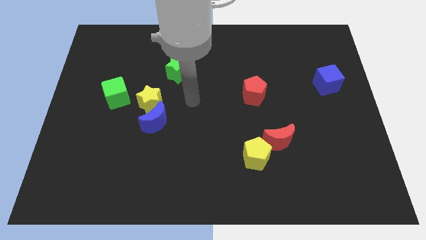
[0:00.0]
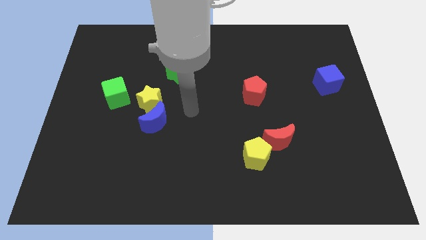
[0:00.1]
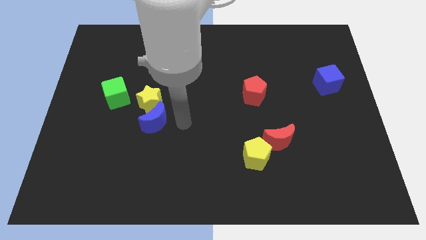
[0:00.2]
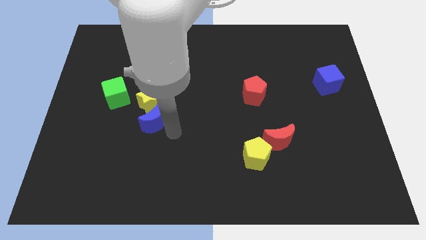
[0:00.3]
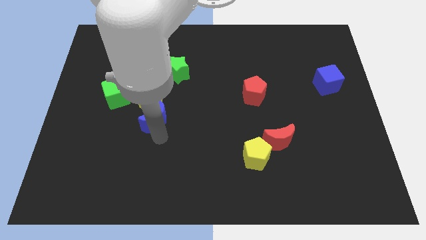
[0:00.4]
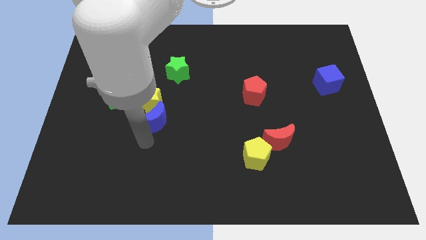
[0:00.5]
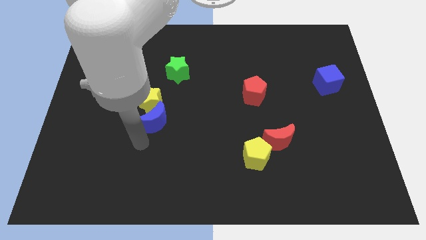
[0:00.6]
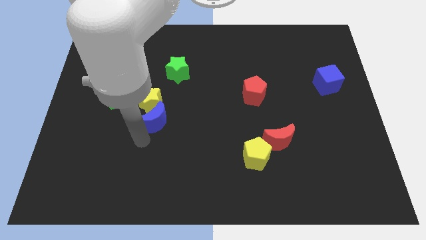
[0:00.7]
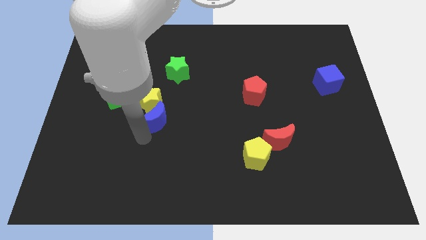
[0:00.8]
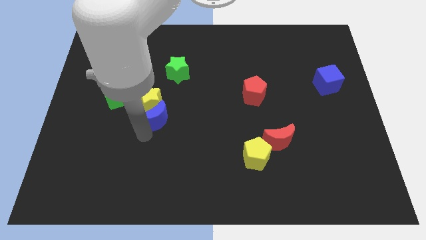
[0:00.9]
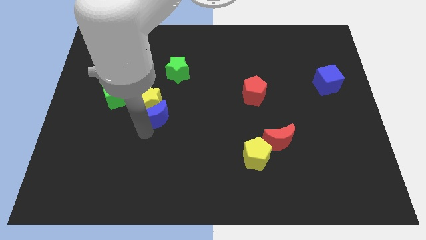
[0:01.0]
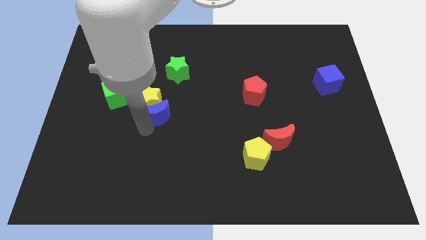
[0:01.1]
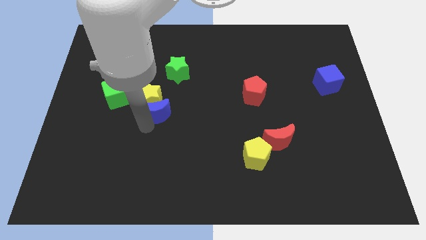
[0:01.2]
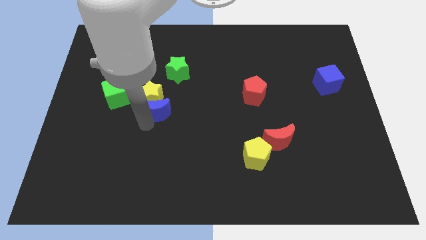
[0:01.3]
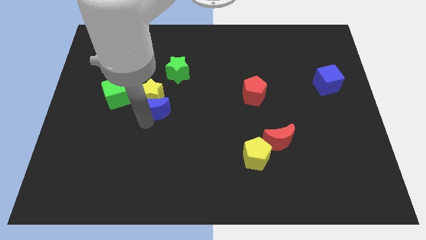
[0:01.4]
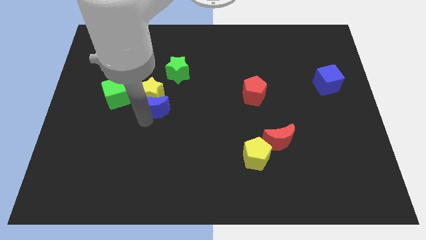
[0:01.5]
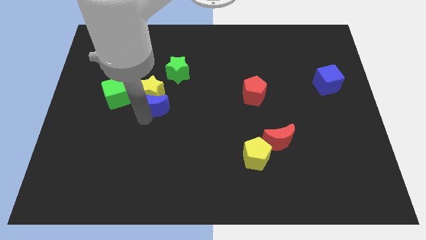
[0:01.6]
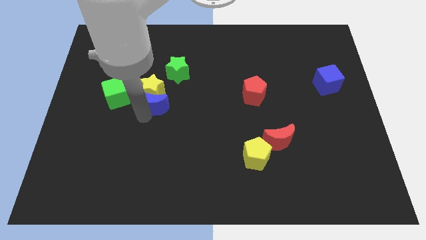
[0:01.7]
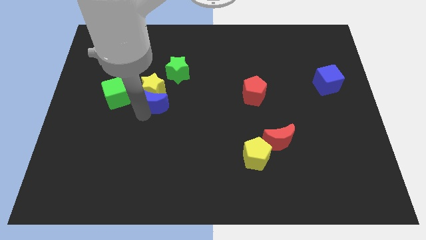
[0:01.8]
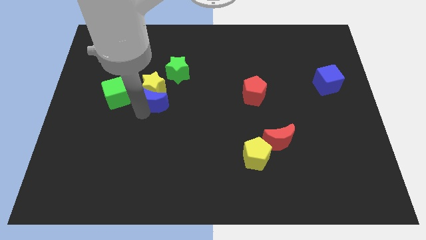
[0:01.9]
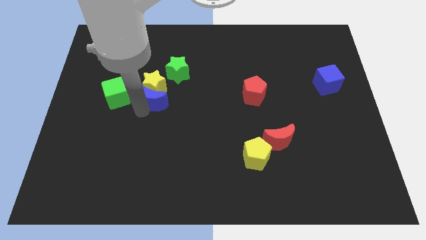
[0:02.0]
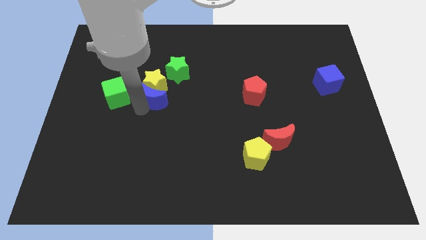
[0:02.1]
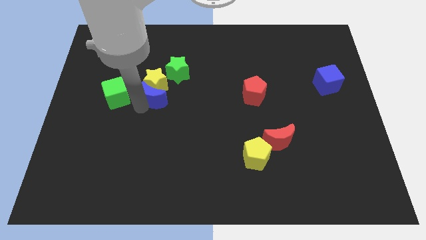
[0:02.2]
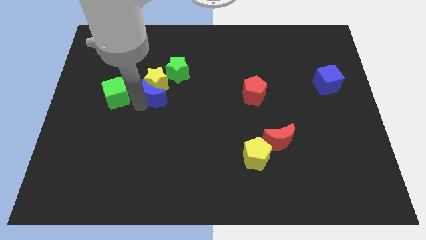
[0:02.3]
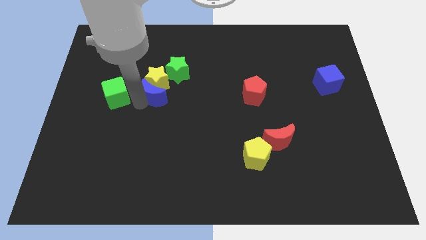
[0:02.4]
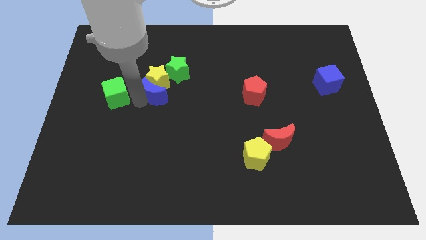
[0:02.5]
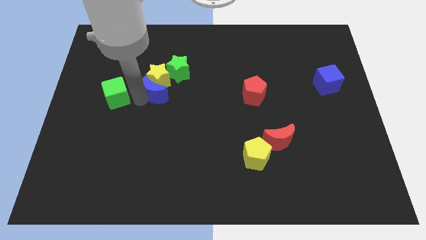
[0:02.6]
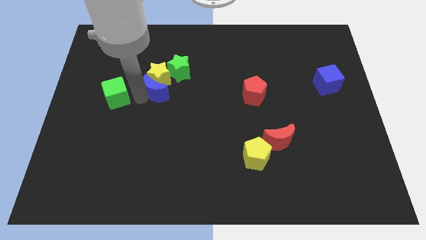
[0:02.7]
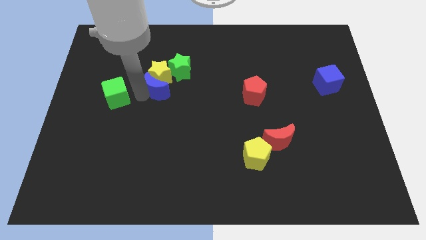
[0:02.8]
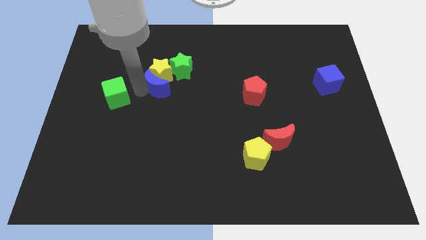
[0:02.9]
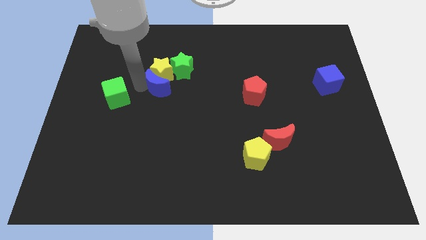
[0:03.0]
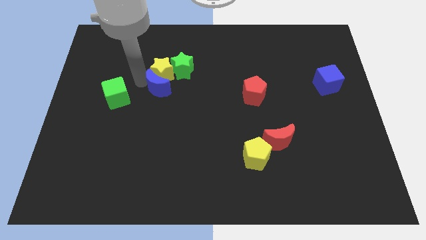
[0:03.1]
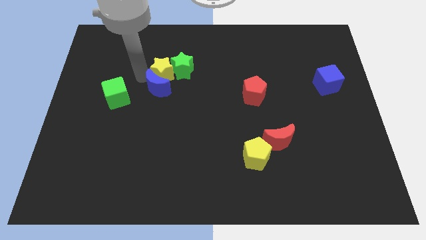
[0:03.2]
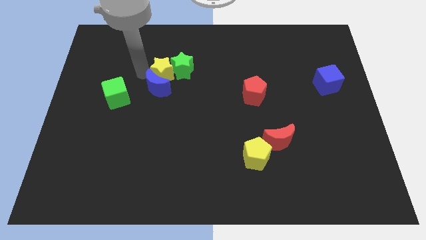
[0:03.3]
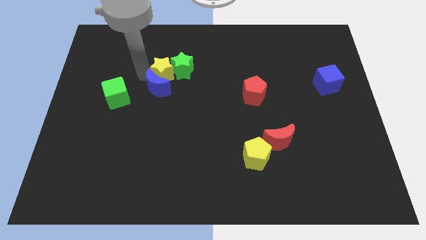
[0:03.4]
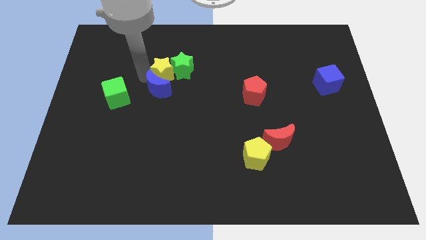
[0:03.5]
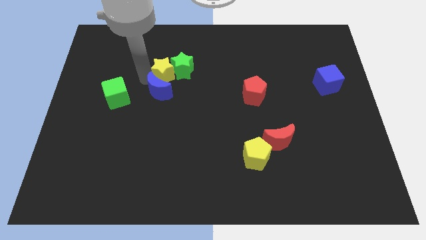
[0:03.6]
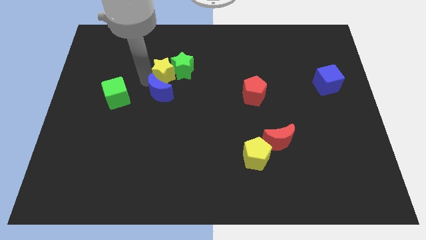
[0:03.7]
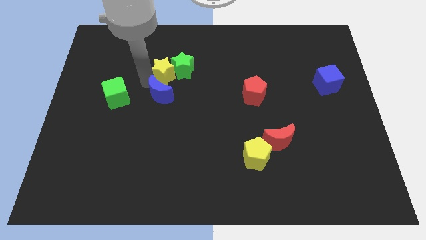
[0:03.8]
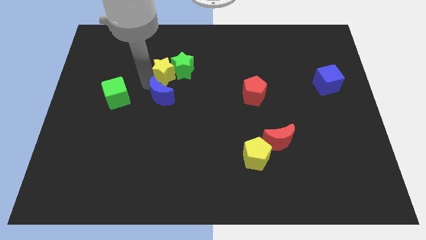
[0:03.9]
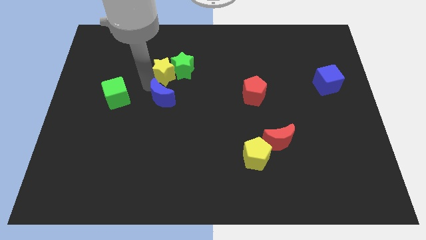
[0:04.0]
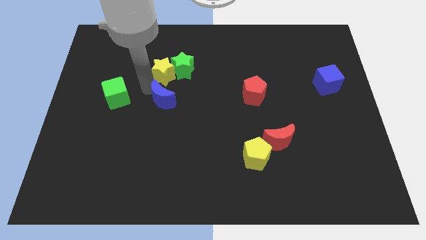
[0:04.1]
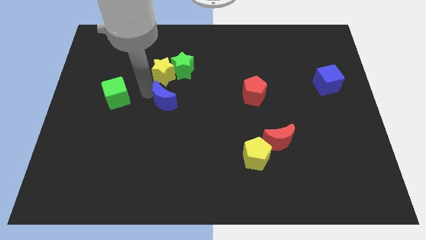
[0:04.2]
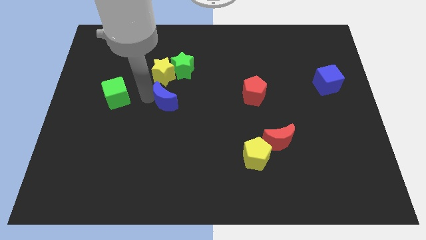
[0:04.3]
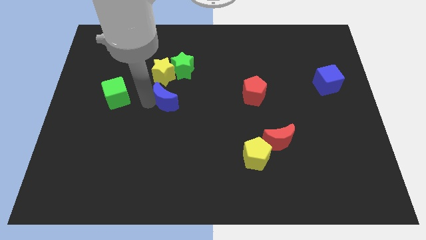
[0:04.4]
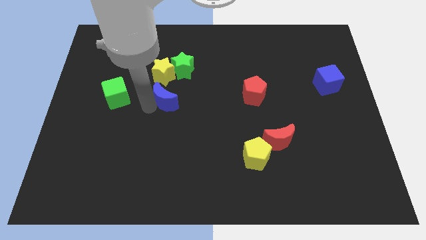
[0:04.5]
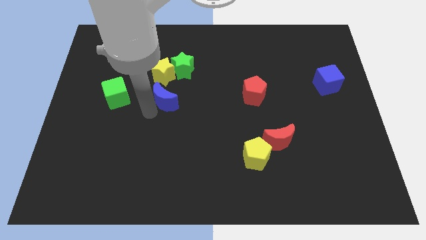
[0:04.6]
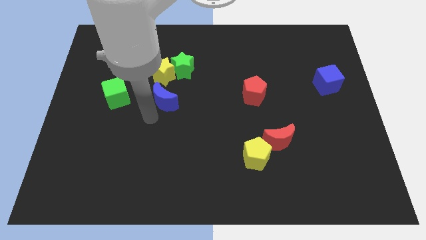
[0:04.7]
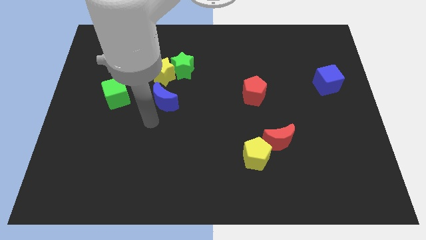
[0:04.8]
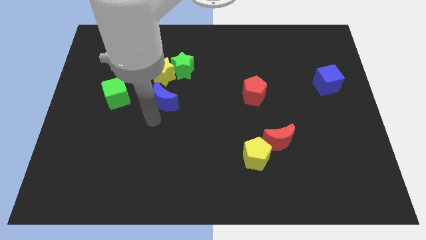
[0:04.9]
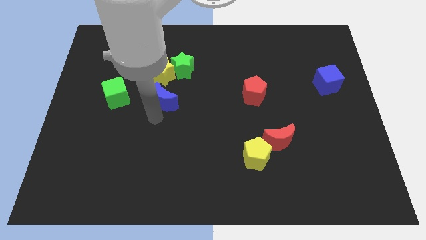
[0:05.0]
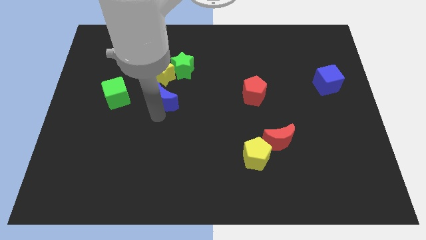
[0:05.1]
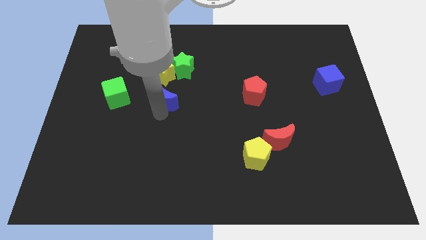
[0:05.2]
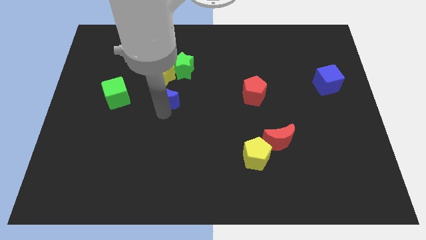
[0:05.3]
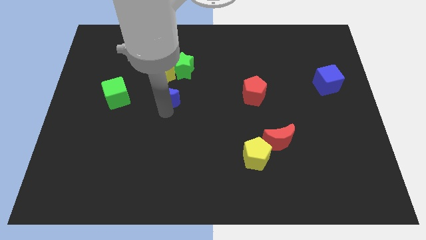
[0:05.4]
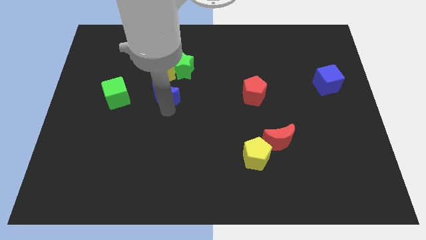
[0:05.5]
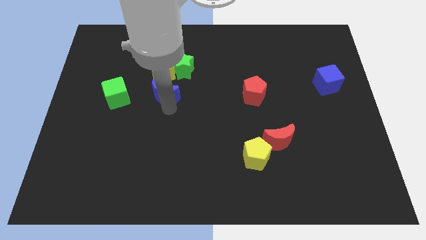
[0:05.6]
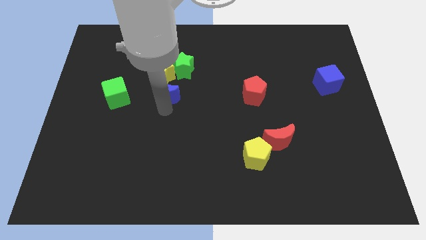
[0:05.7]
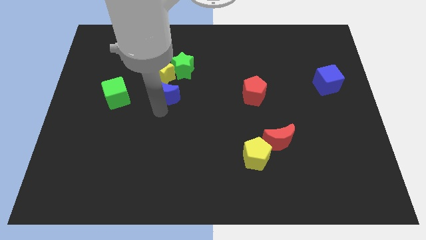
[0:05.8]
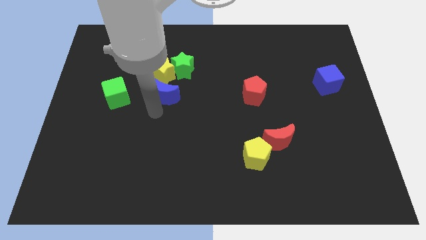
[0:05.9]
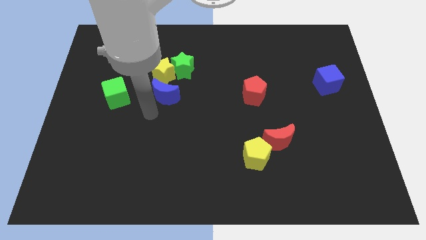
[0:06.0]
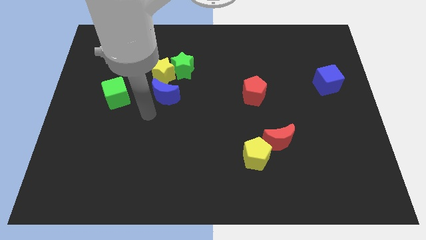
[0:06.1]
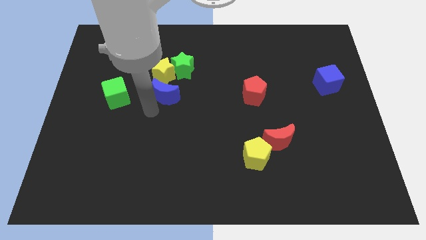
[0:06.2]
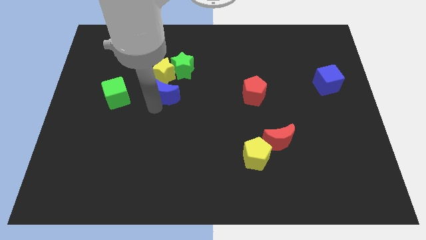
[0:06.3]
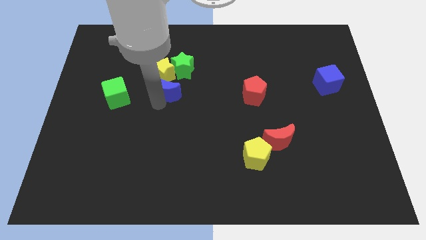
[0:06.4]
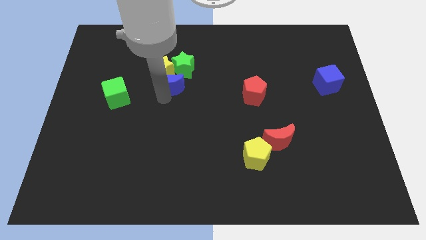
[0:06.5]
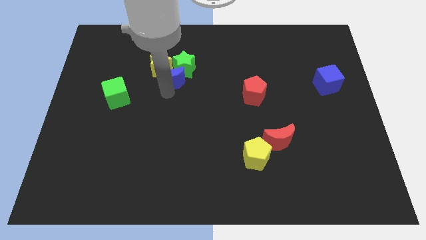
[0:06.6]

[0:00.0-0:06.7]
put the blue moon next to the green star
